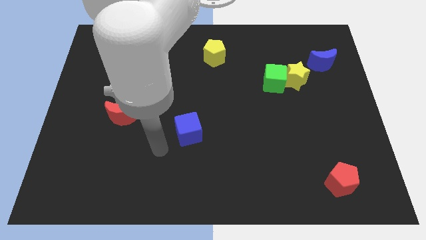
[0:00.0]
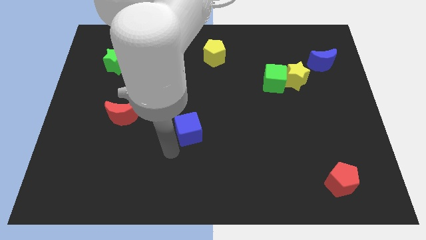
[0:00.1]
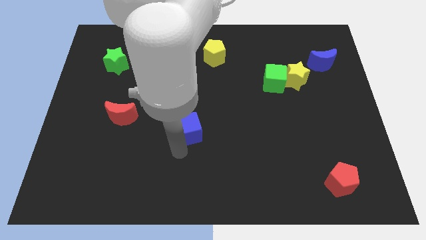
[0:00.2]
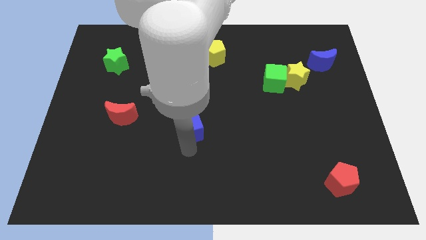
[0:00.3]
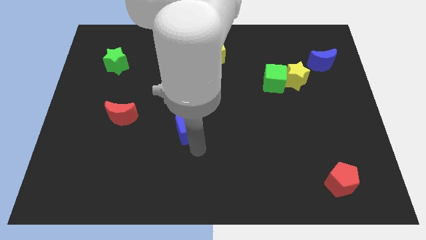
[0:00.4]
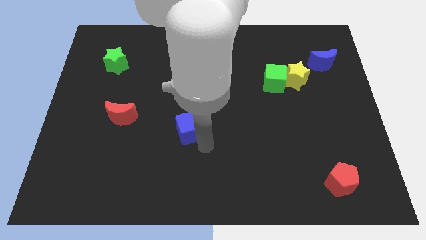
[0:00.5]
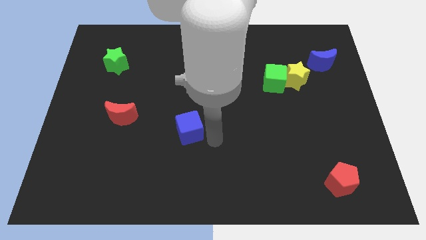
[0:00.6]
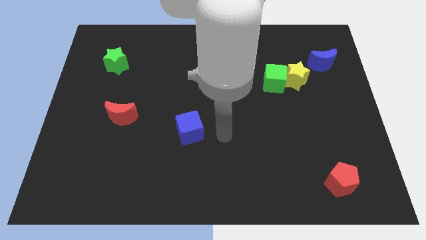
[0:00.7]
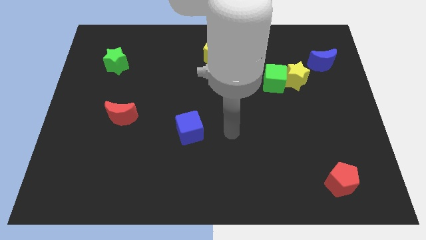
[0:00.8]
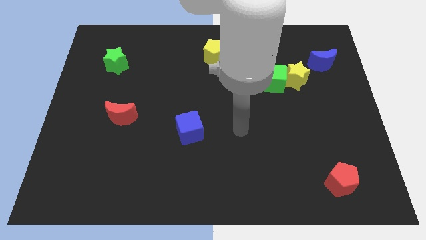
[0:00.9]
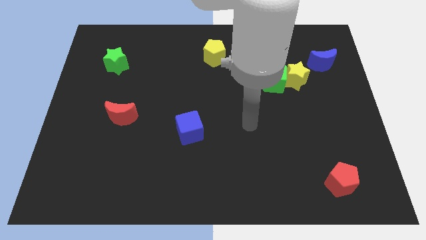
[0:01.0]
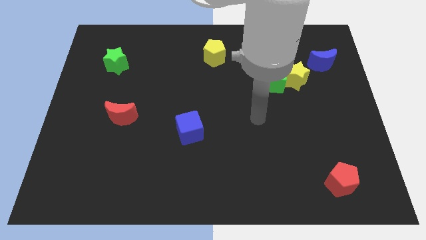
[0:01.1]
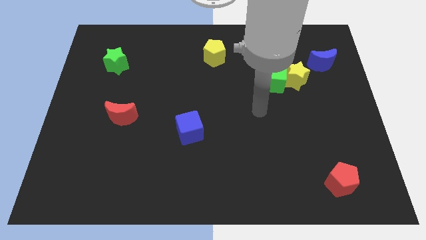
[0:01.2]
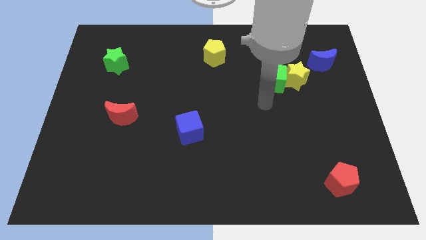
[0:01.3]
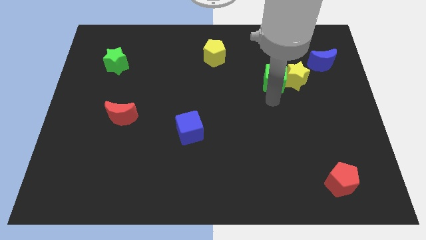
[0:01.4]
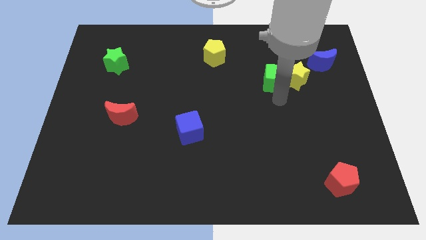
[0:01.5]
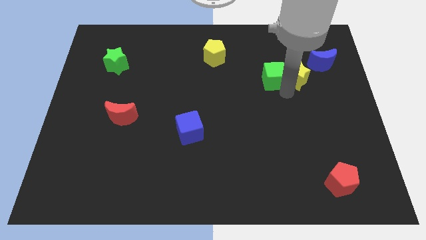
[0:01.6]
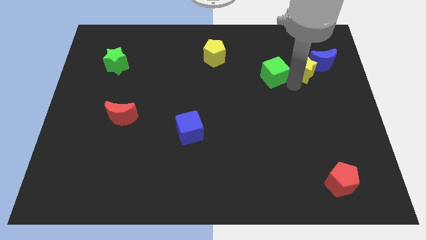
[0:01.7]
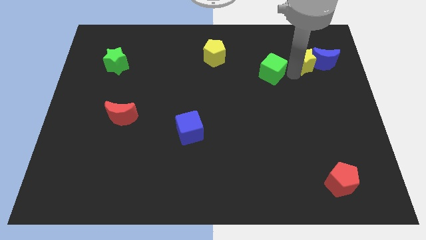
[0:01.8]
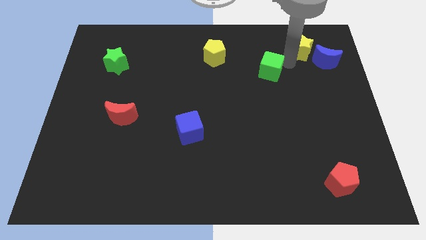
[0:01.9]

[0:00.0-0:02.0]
pull the green cube apart from the yellow star

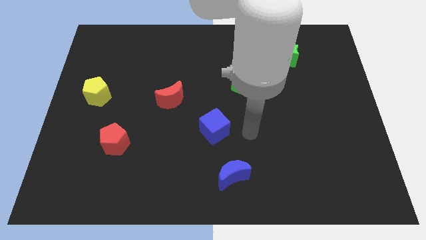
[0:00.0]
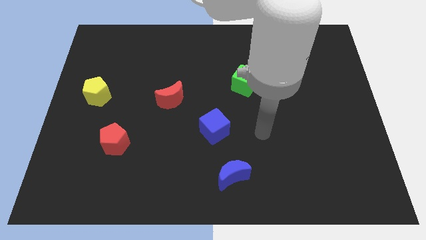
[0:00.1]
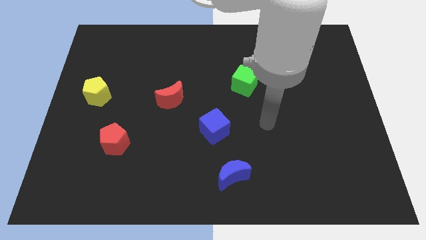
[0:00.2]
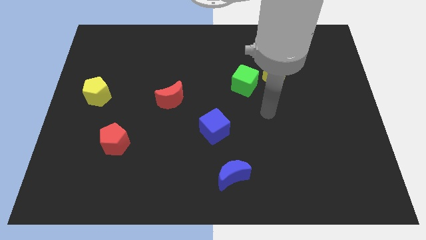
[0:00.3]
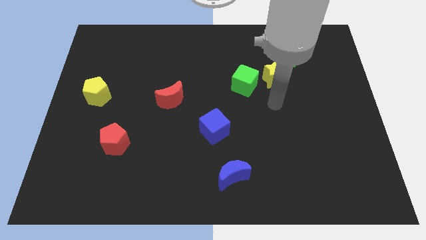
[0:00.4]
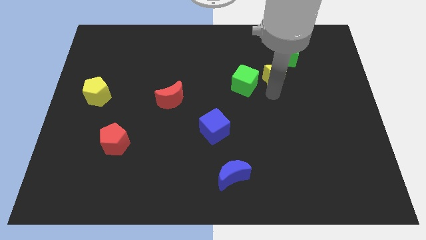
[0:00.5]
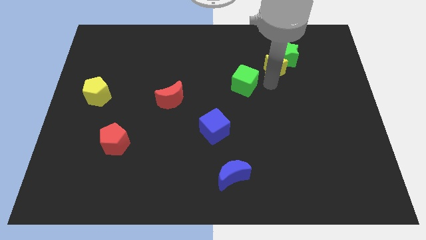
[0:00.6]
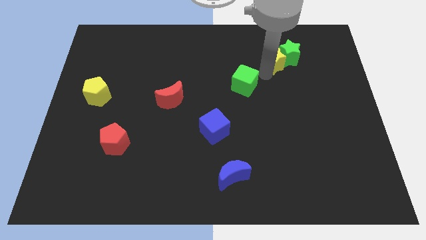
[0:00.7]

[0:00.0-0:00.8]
move the green cube away from the yellow star

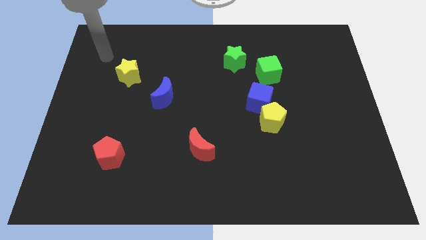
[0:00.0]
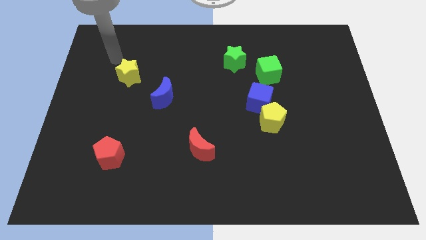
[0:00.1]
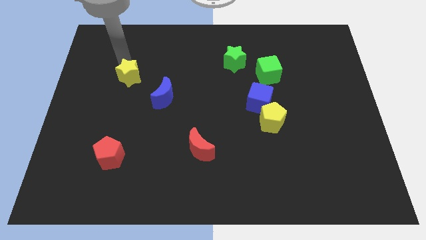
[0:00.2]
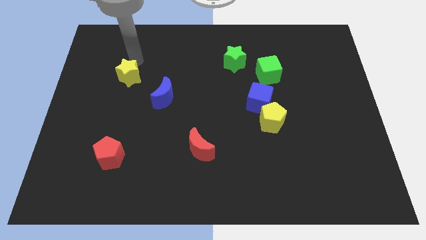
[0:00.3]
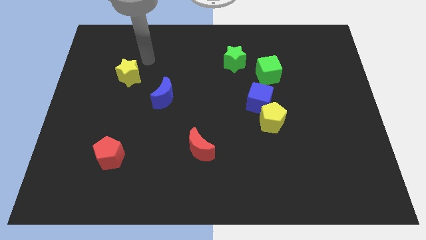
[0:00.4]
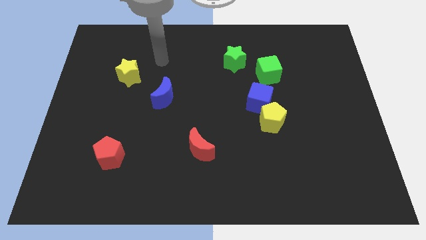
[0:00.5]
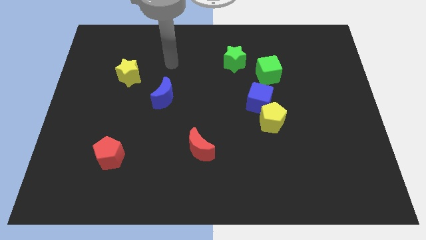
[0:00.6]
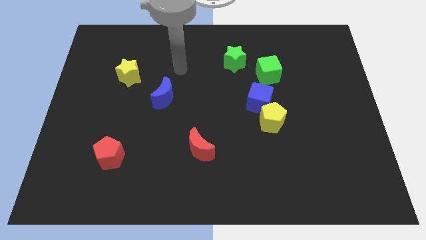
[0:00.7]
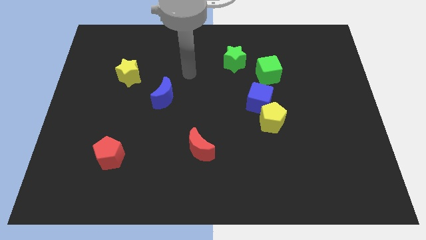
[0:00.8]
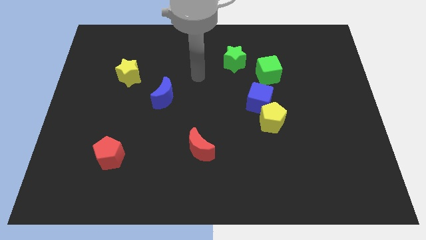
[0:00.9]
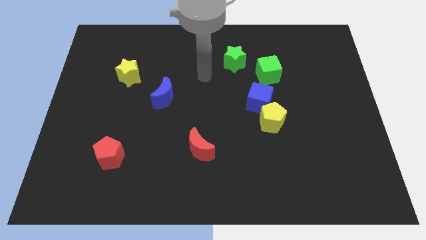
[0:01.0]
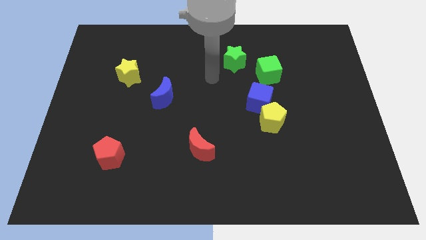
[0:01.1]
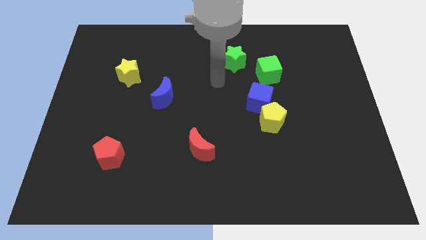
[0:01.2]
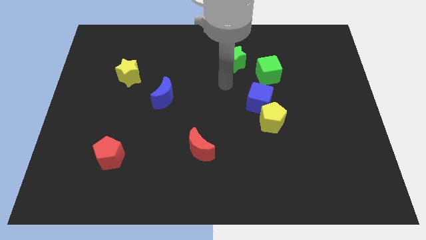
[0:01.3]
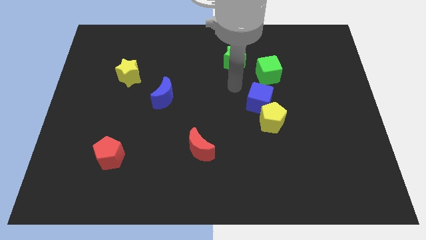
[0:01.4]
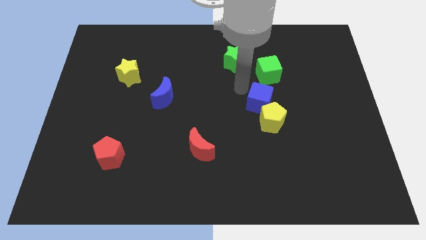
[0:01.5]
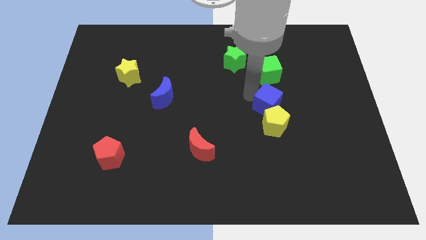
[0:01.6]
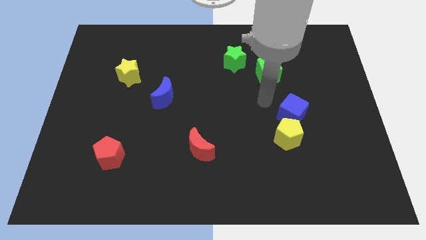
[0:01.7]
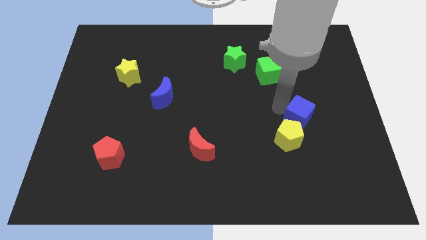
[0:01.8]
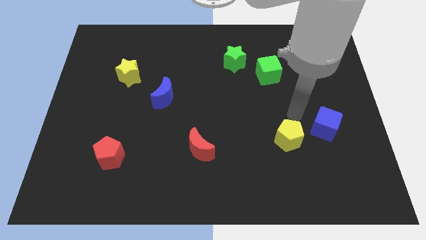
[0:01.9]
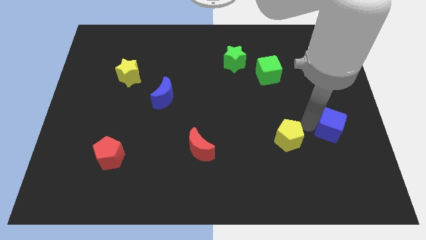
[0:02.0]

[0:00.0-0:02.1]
pull the yellow pentagon apart from the blue cube

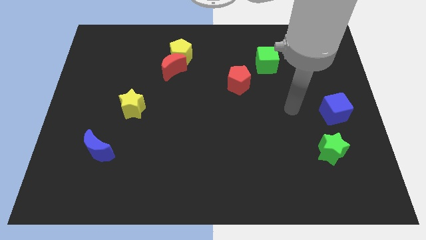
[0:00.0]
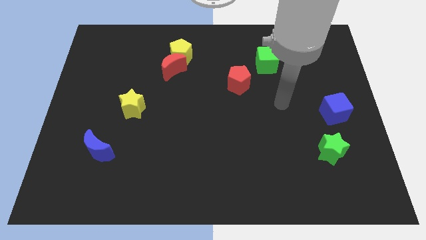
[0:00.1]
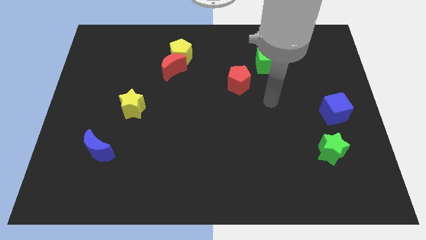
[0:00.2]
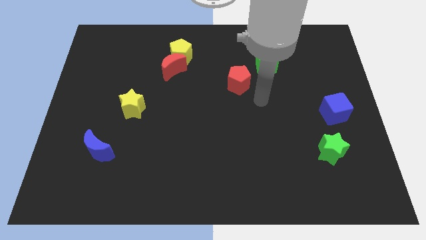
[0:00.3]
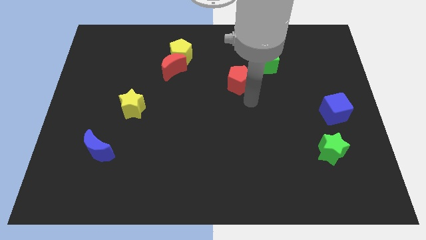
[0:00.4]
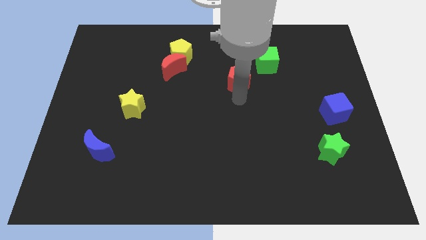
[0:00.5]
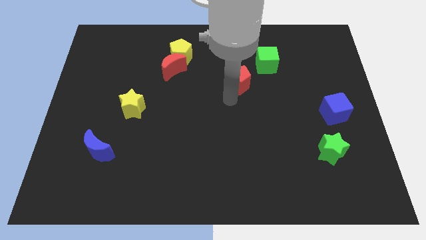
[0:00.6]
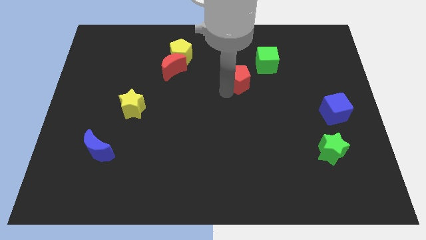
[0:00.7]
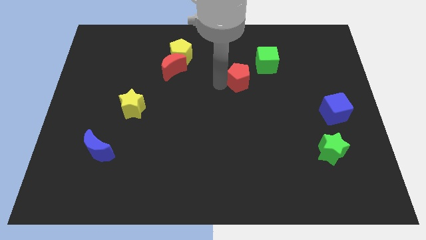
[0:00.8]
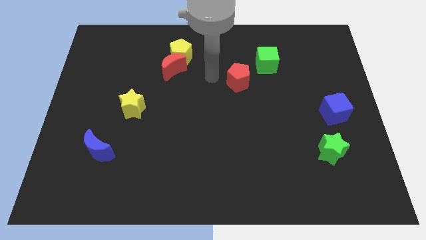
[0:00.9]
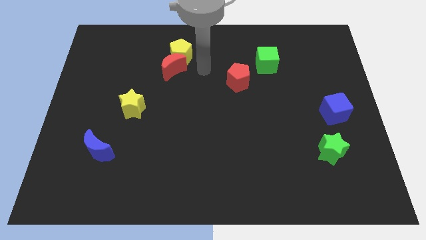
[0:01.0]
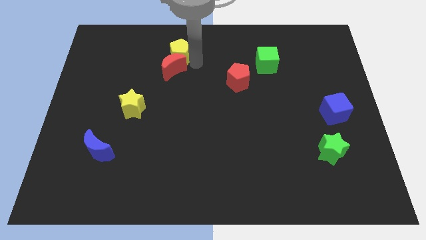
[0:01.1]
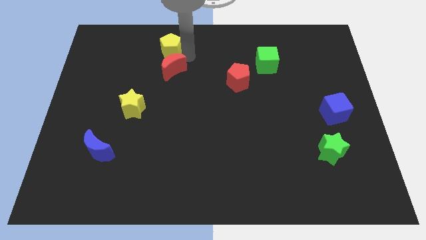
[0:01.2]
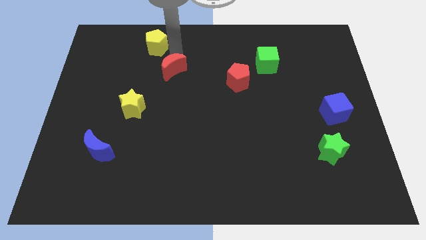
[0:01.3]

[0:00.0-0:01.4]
separate the red moon from the yellow pentagon

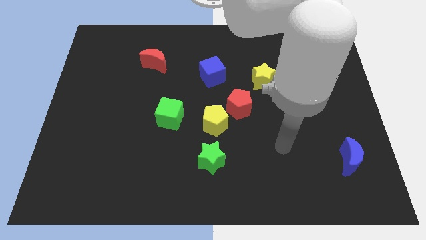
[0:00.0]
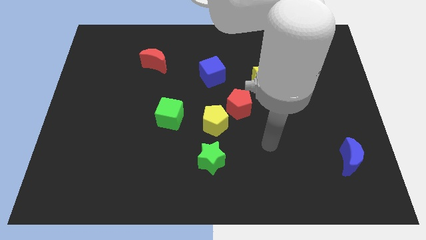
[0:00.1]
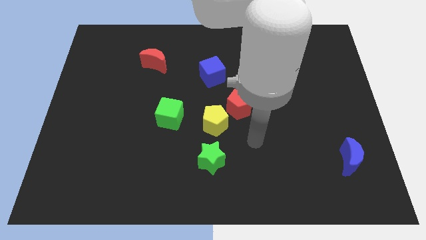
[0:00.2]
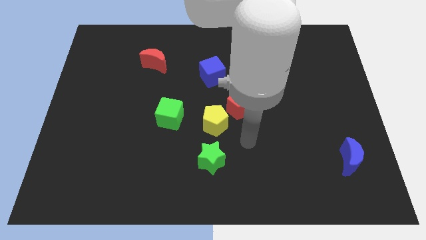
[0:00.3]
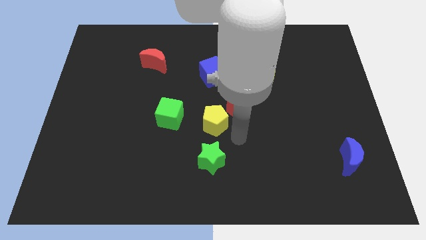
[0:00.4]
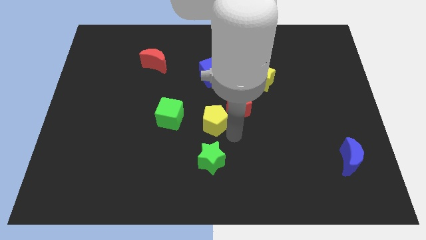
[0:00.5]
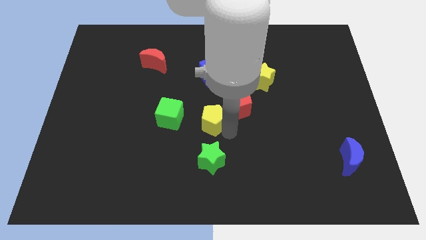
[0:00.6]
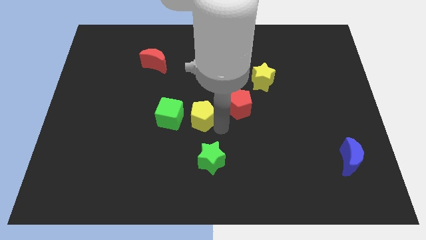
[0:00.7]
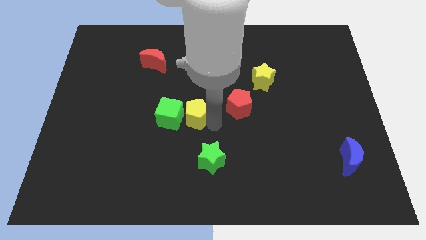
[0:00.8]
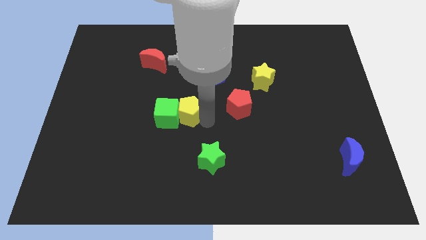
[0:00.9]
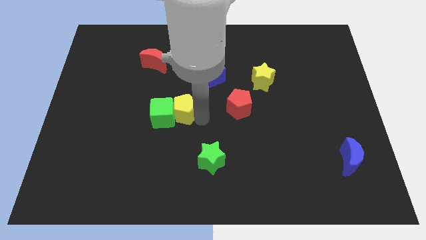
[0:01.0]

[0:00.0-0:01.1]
separate the yellow pentagon from the red pentagon and green star

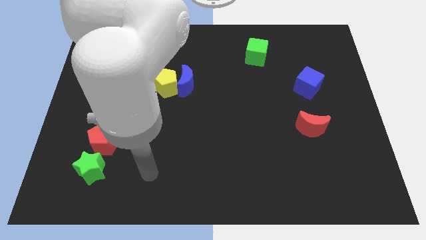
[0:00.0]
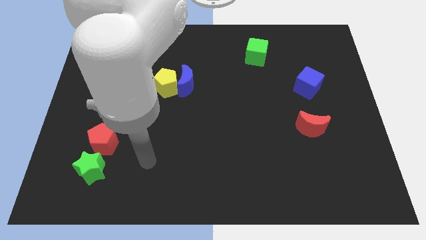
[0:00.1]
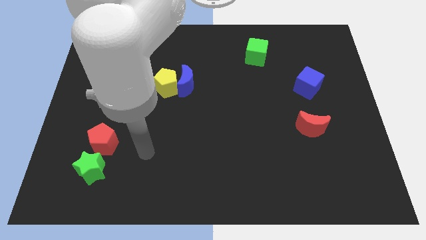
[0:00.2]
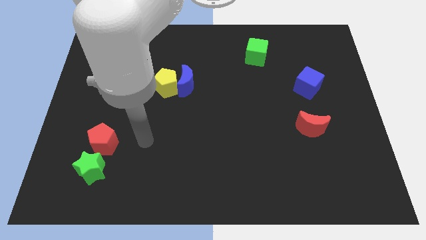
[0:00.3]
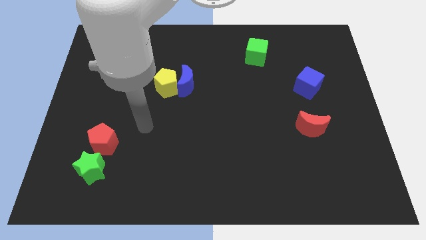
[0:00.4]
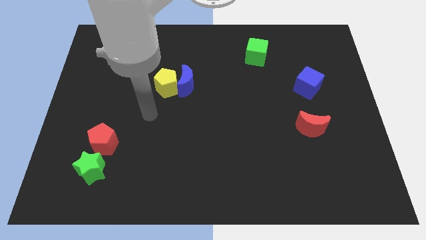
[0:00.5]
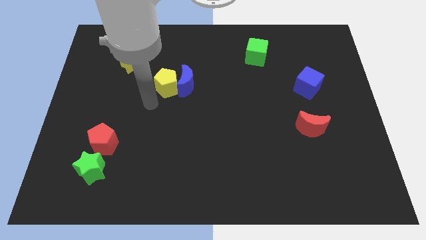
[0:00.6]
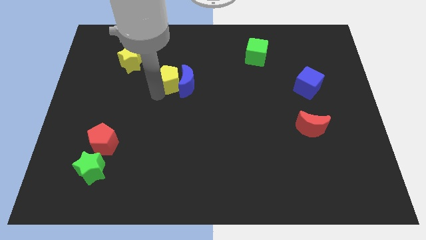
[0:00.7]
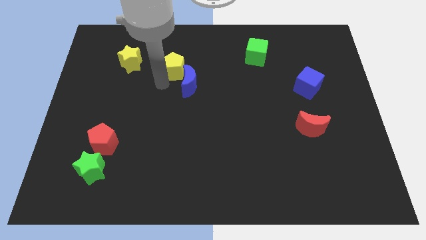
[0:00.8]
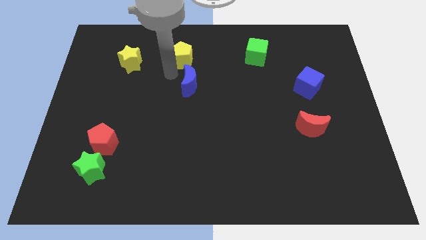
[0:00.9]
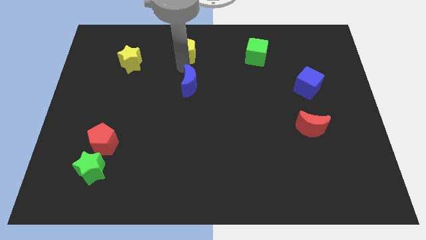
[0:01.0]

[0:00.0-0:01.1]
separate the blue moon from the yellow pentagon

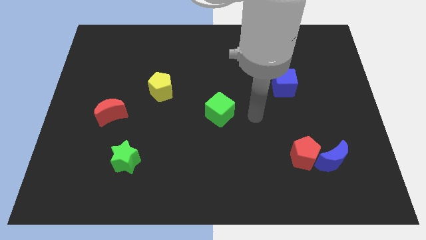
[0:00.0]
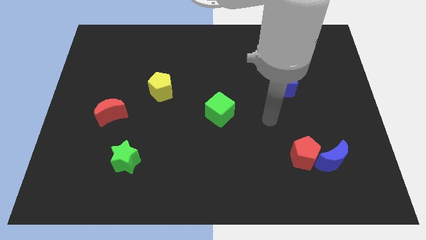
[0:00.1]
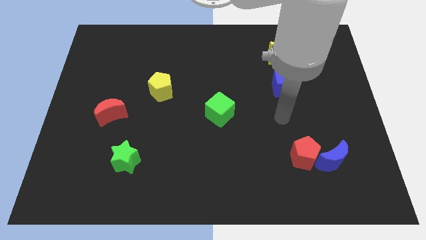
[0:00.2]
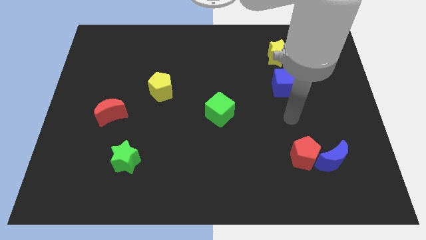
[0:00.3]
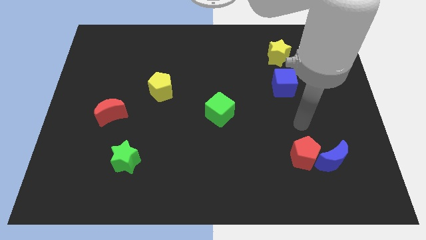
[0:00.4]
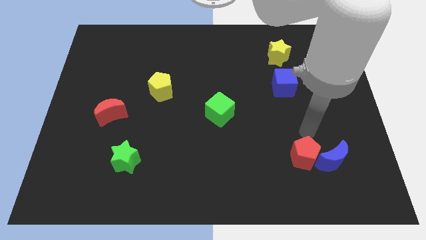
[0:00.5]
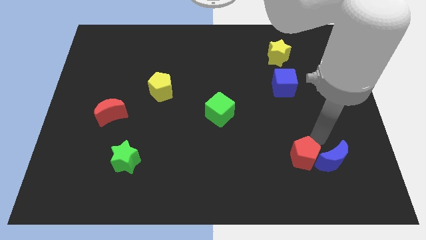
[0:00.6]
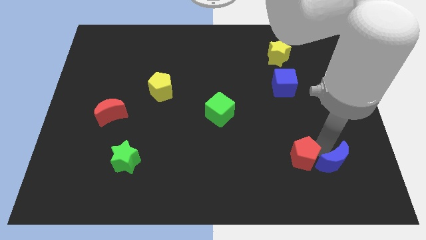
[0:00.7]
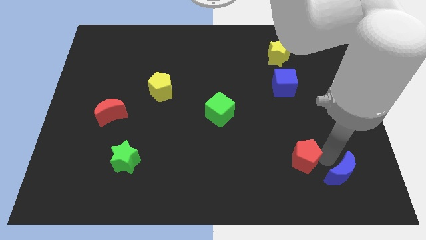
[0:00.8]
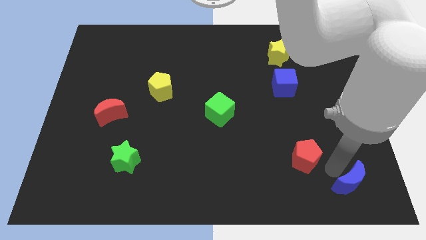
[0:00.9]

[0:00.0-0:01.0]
pull the red pentagon apart from the blue moon
